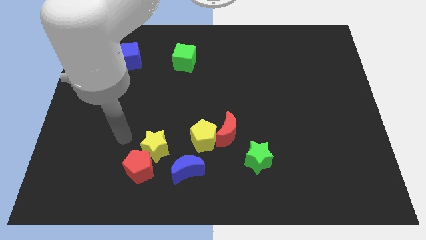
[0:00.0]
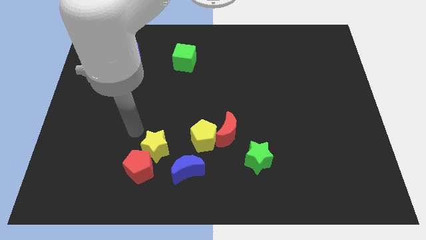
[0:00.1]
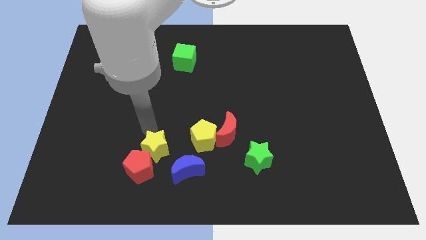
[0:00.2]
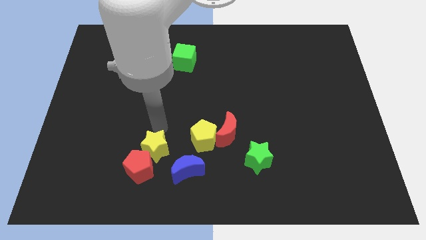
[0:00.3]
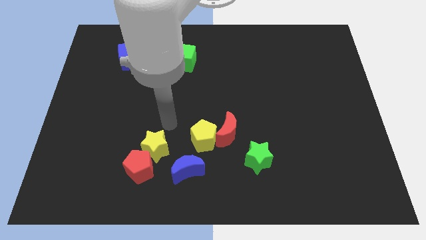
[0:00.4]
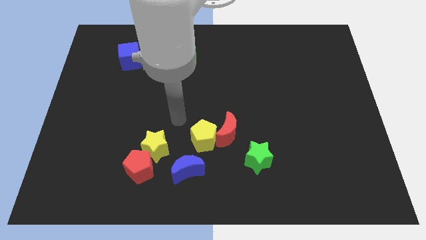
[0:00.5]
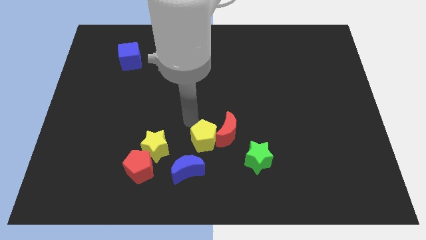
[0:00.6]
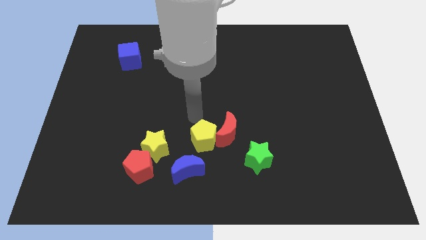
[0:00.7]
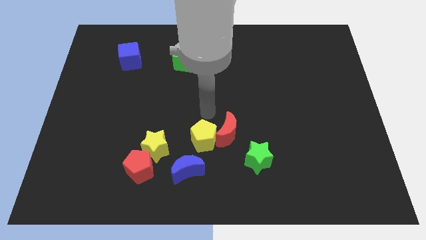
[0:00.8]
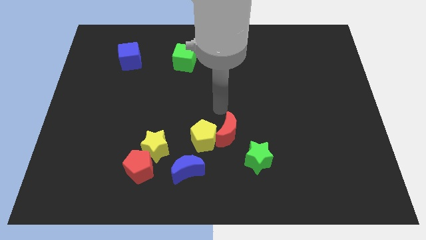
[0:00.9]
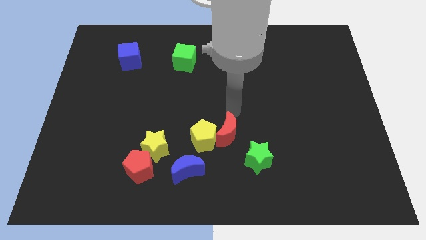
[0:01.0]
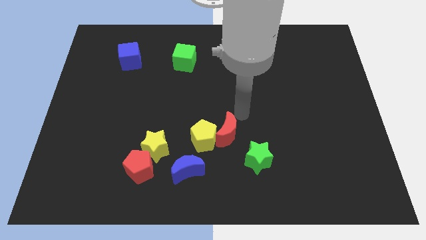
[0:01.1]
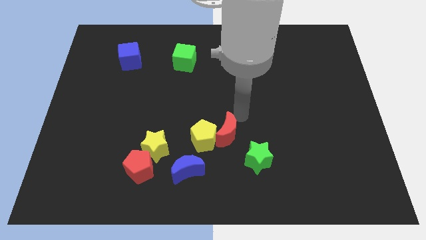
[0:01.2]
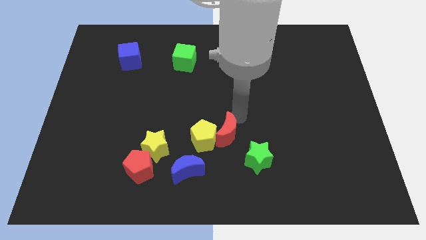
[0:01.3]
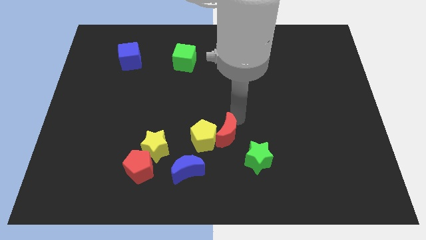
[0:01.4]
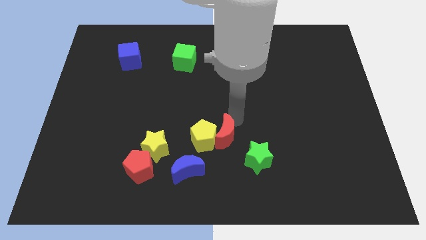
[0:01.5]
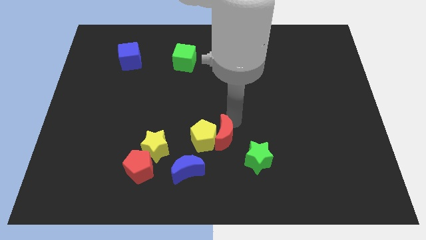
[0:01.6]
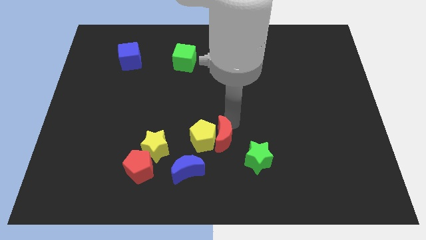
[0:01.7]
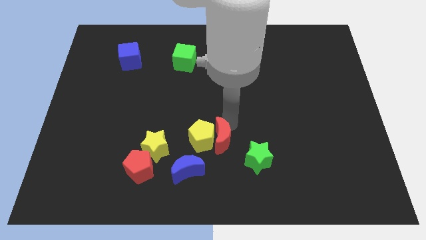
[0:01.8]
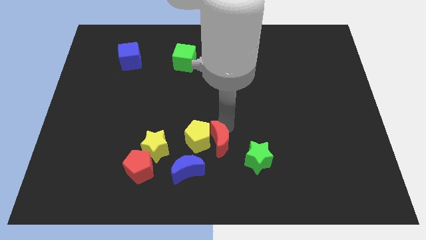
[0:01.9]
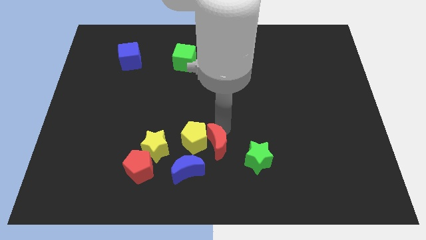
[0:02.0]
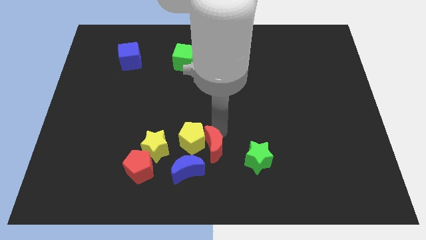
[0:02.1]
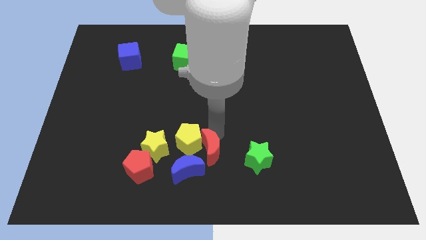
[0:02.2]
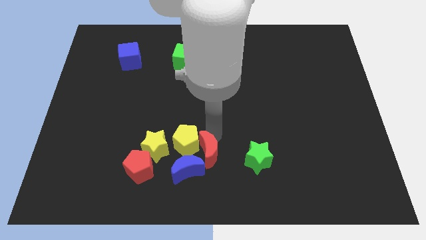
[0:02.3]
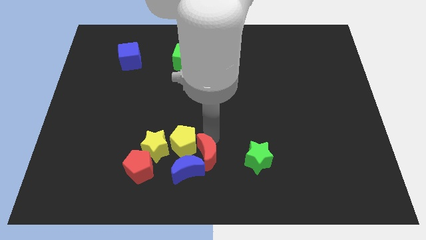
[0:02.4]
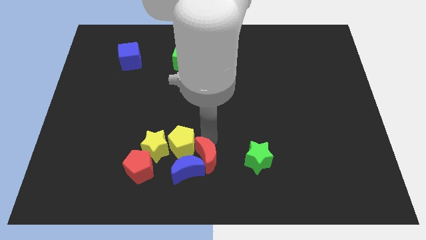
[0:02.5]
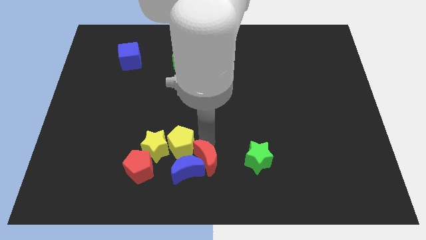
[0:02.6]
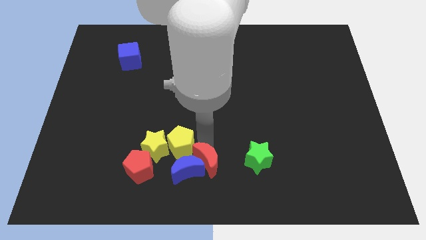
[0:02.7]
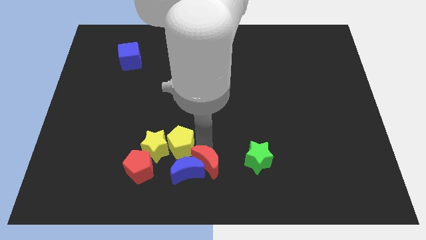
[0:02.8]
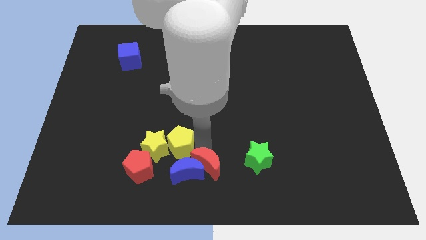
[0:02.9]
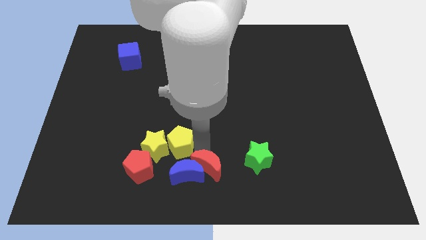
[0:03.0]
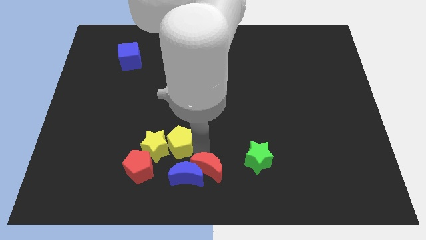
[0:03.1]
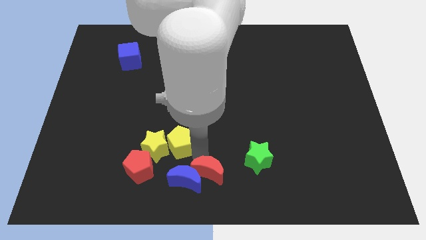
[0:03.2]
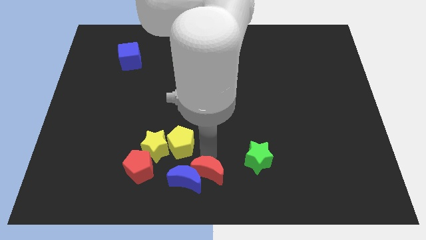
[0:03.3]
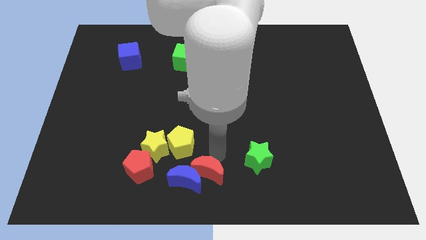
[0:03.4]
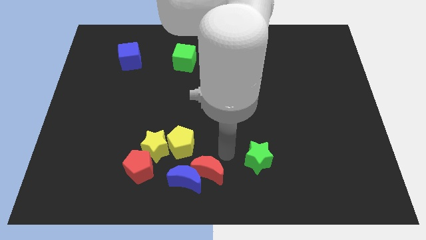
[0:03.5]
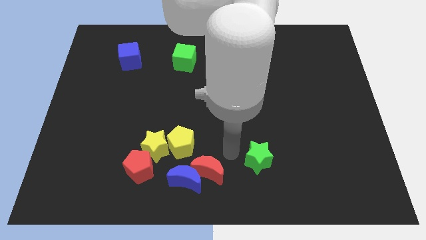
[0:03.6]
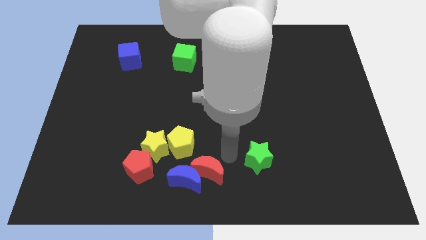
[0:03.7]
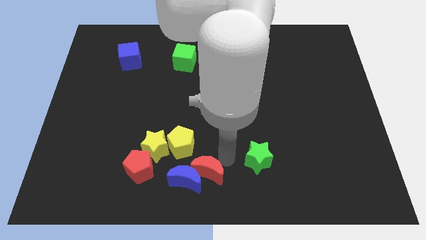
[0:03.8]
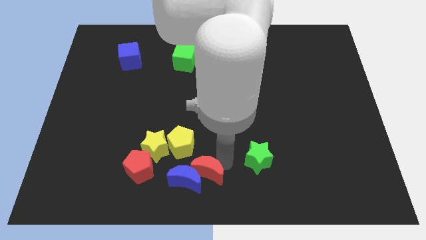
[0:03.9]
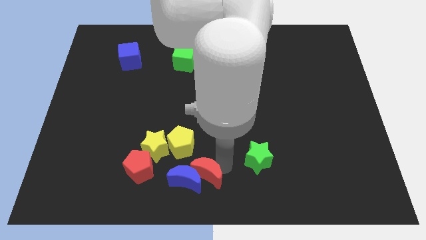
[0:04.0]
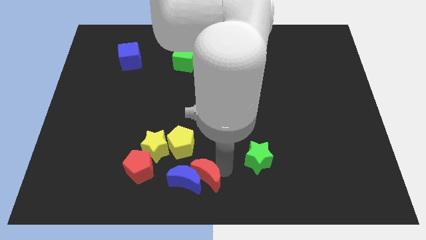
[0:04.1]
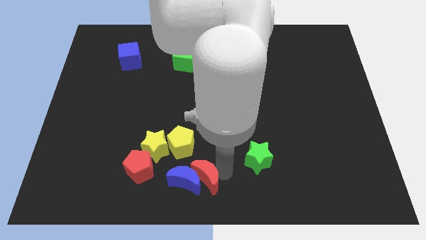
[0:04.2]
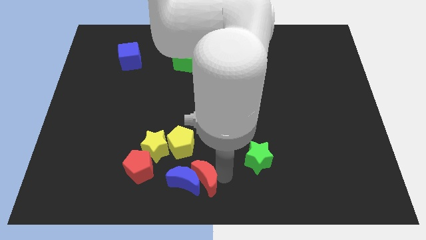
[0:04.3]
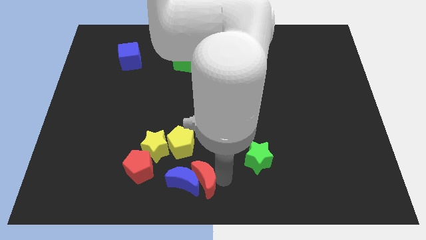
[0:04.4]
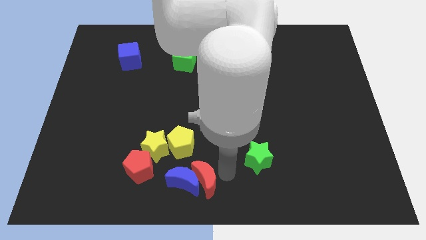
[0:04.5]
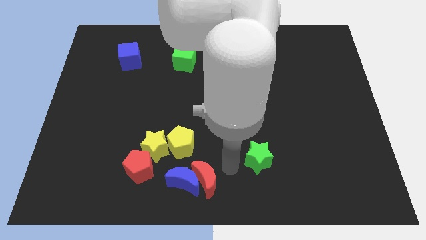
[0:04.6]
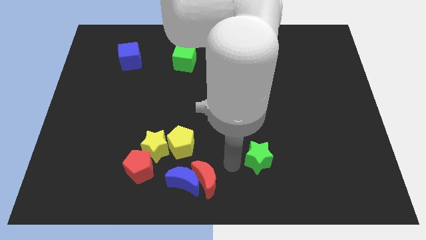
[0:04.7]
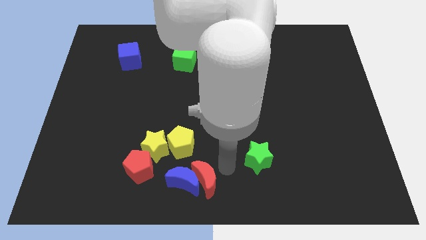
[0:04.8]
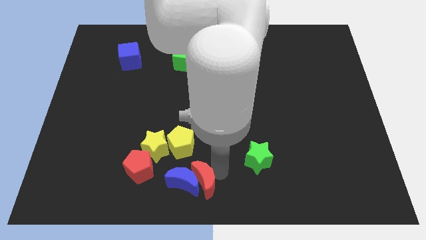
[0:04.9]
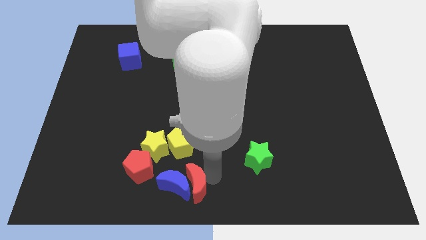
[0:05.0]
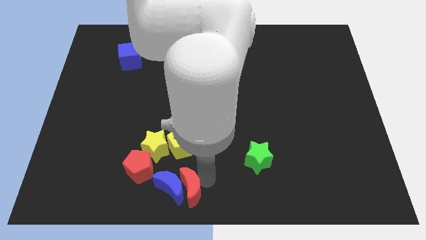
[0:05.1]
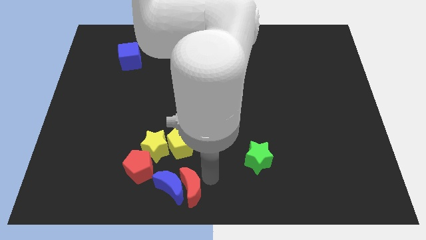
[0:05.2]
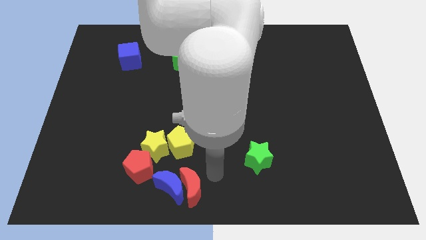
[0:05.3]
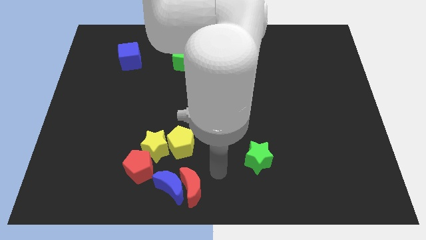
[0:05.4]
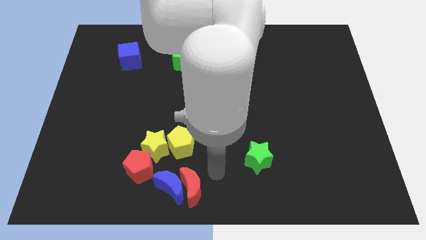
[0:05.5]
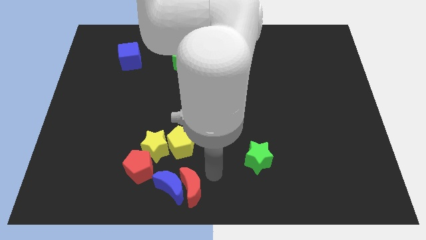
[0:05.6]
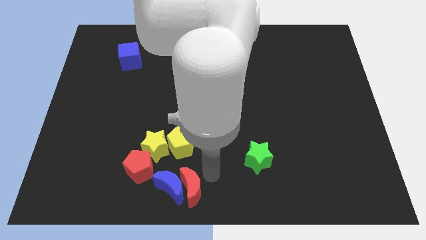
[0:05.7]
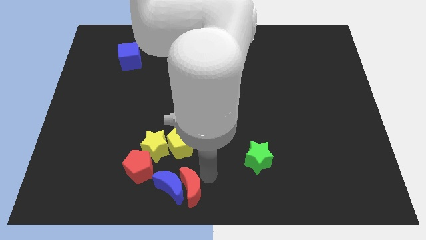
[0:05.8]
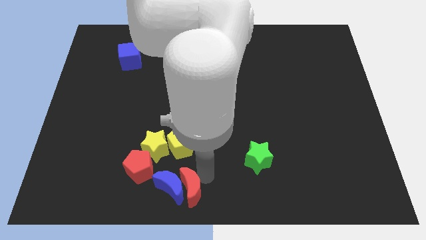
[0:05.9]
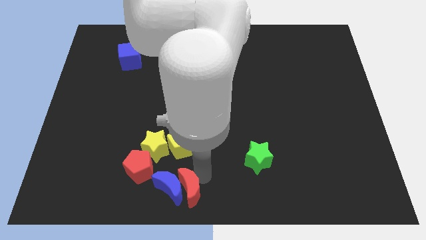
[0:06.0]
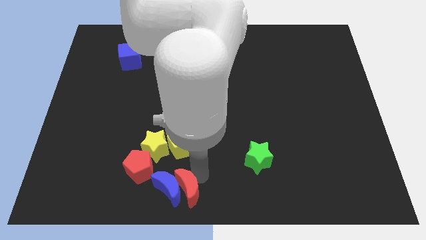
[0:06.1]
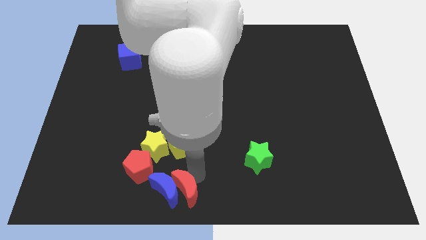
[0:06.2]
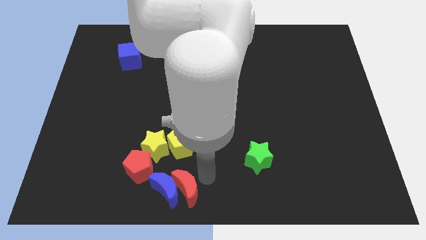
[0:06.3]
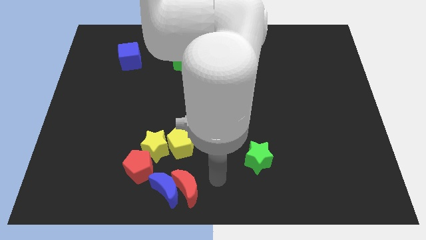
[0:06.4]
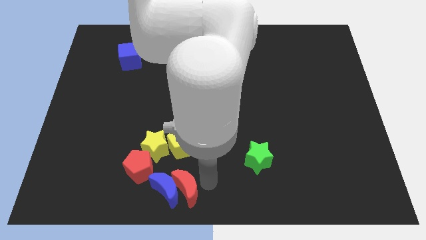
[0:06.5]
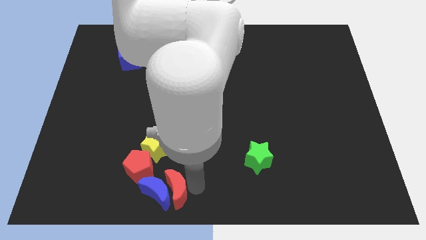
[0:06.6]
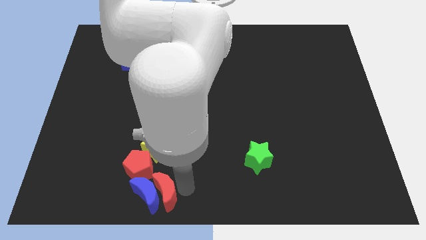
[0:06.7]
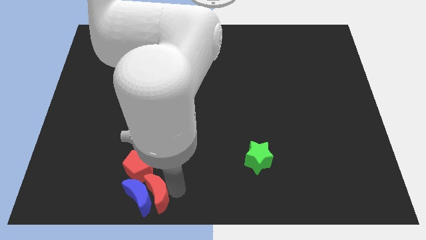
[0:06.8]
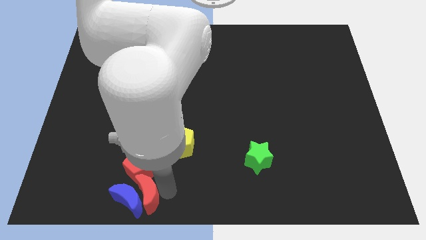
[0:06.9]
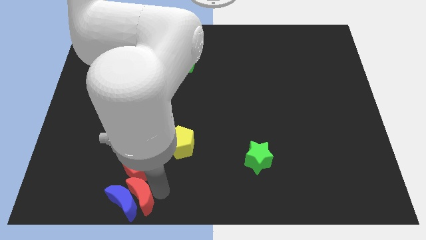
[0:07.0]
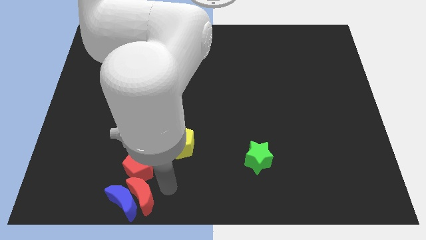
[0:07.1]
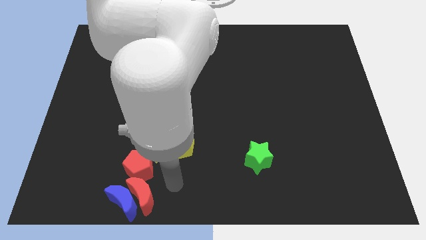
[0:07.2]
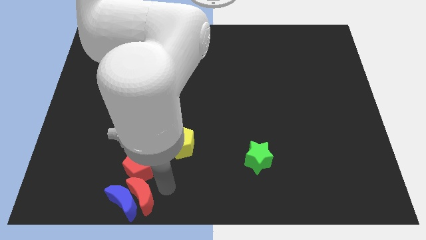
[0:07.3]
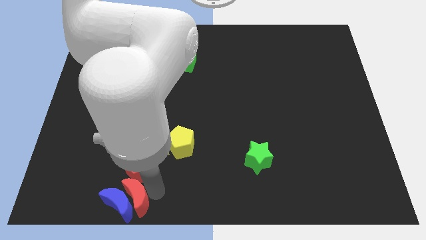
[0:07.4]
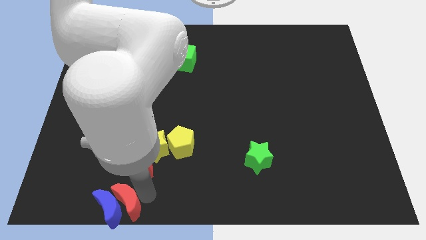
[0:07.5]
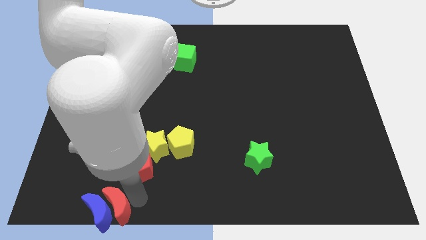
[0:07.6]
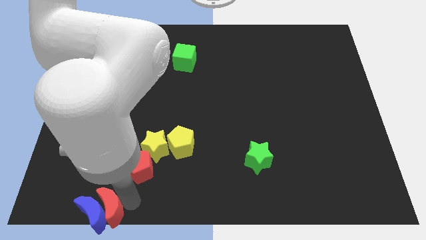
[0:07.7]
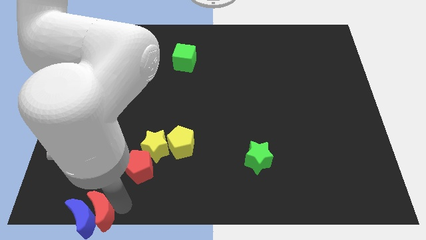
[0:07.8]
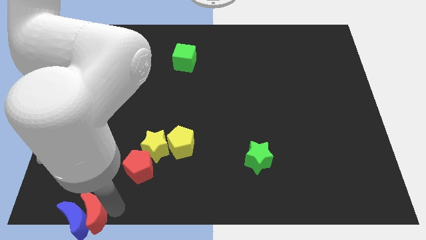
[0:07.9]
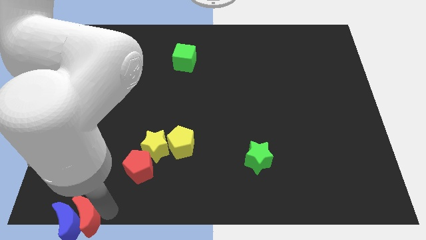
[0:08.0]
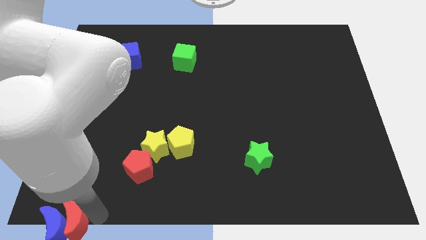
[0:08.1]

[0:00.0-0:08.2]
put the red moon to the bottom left corner
